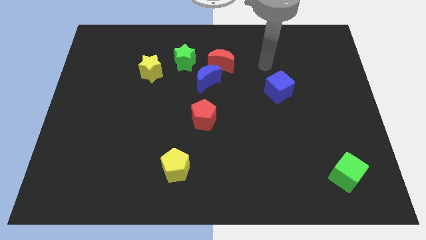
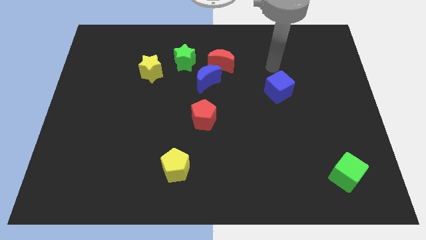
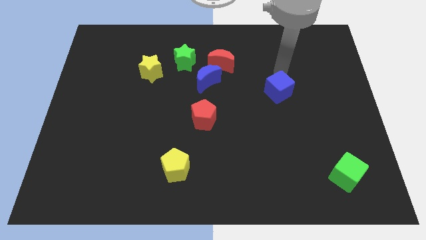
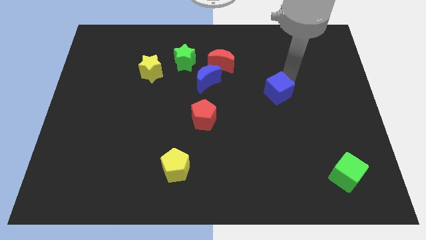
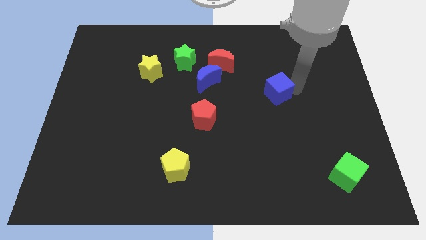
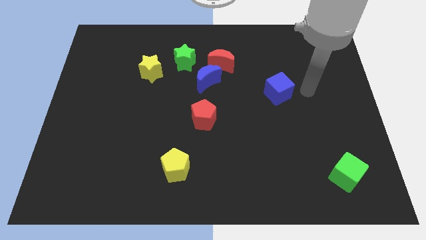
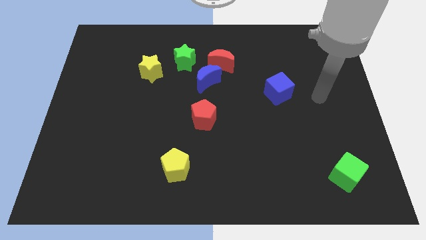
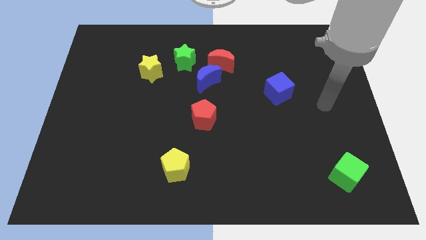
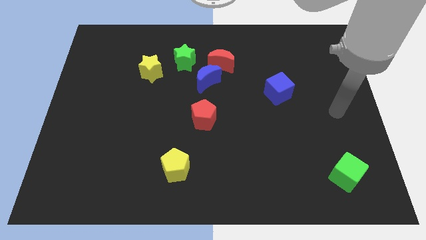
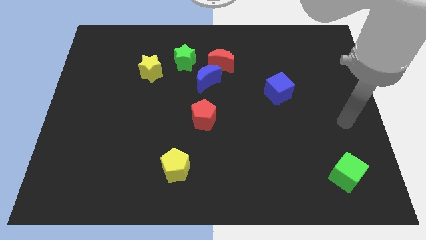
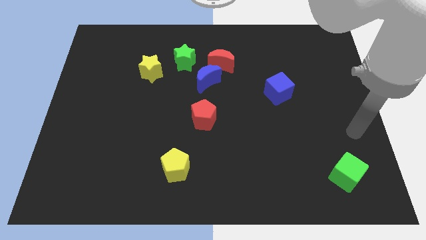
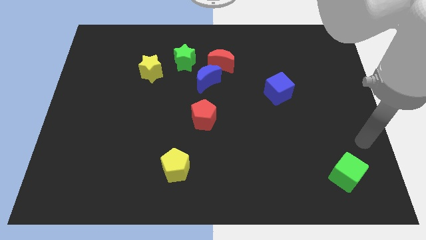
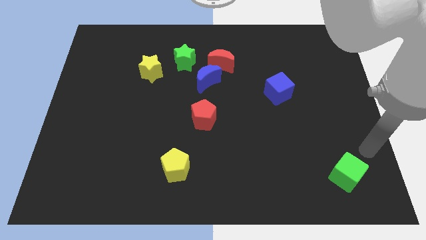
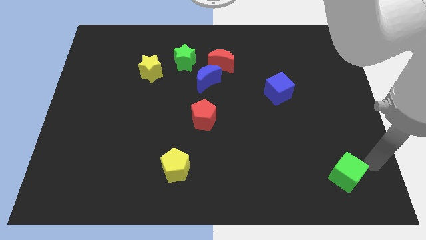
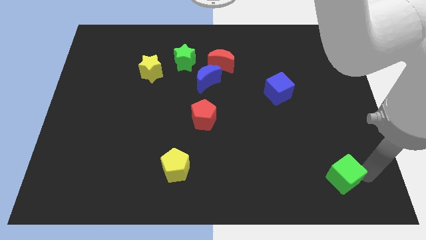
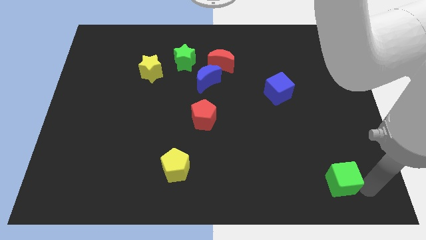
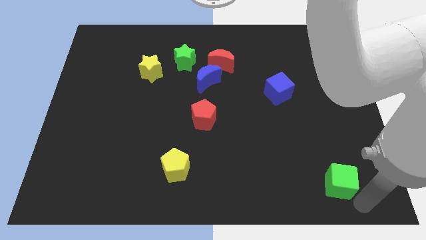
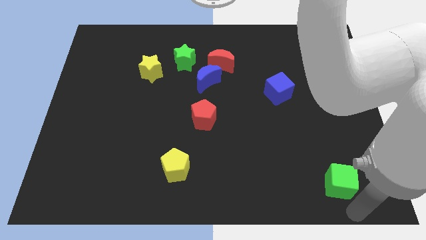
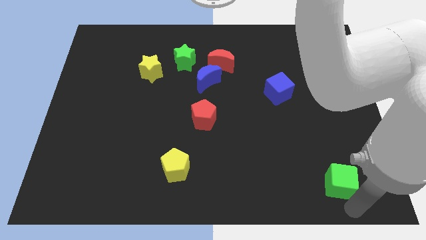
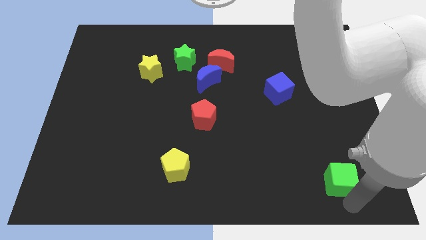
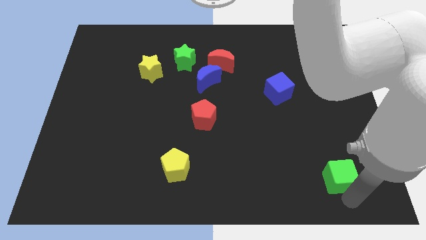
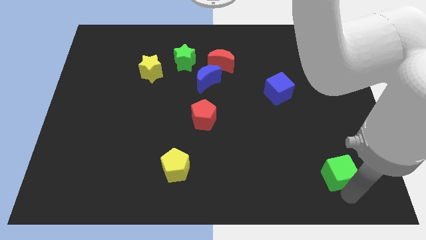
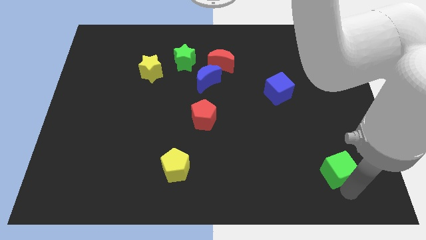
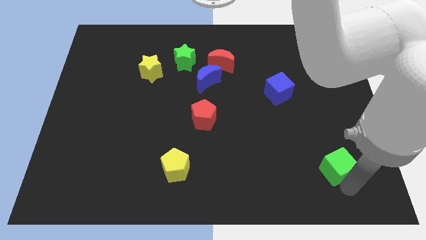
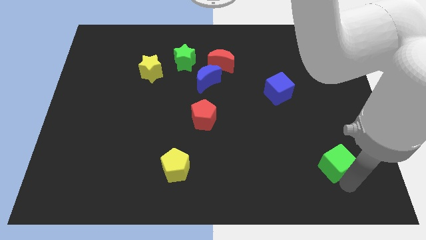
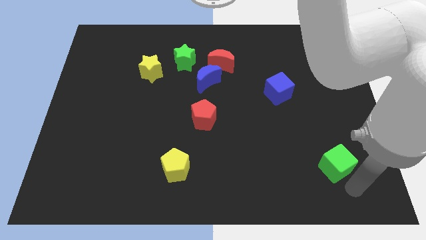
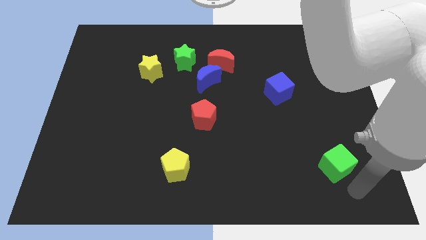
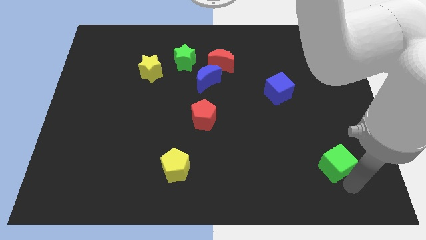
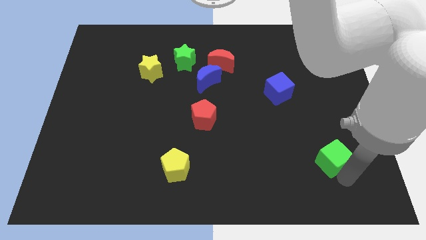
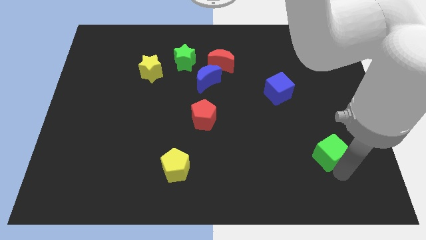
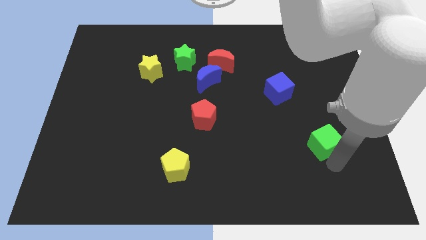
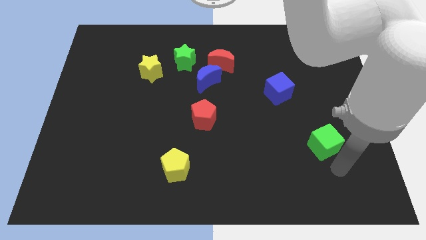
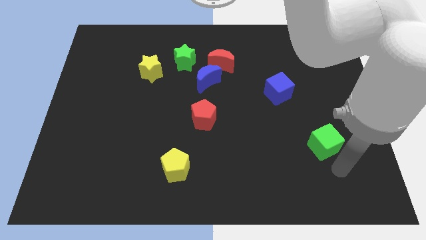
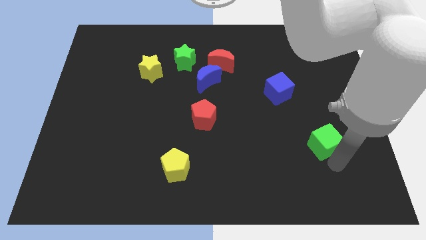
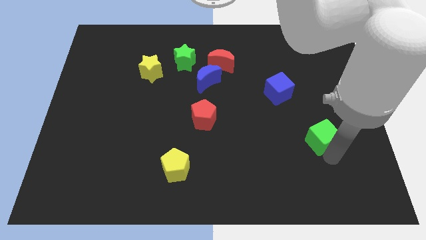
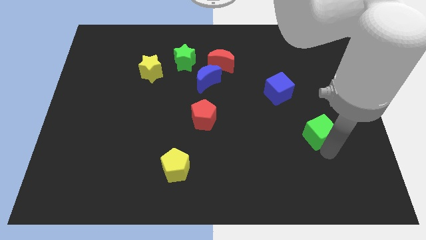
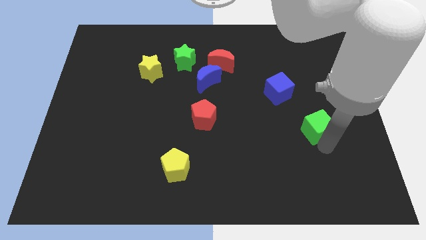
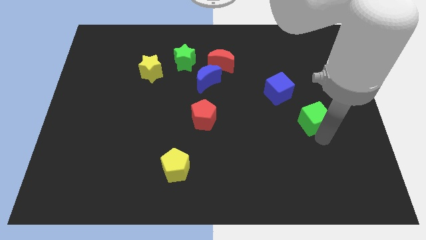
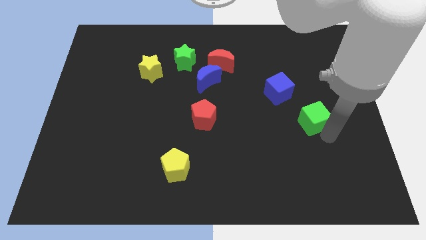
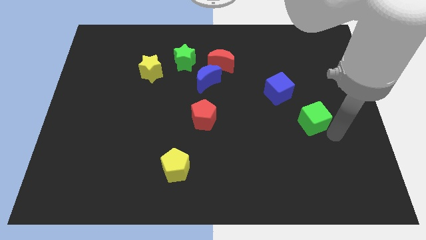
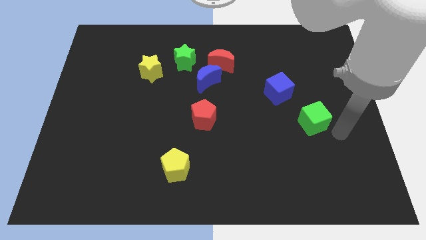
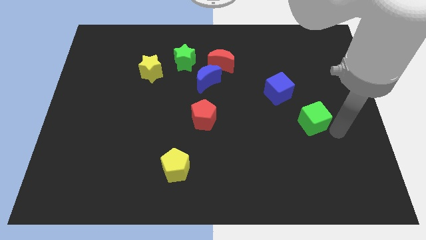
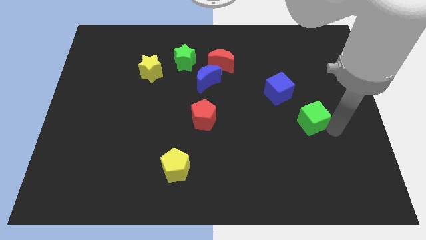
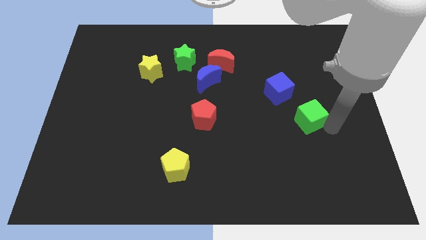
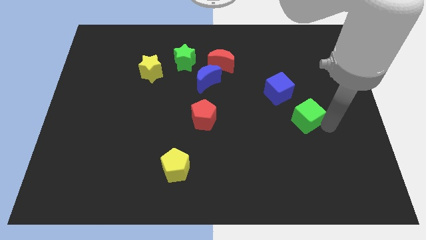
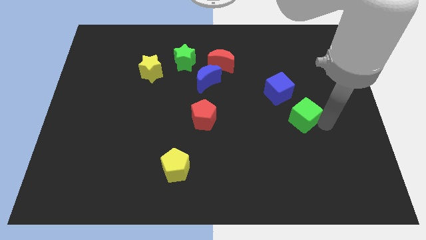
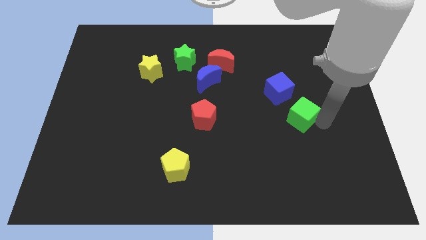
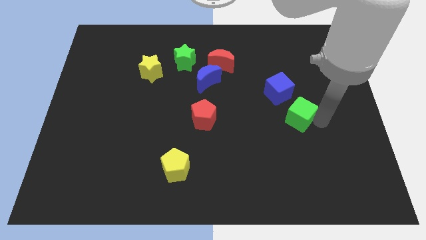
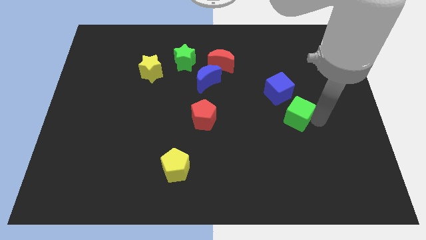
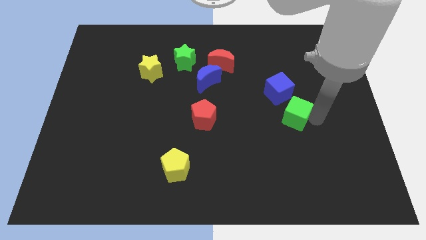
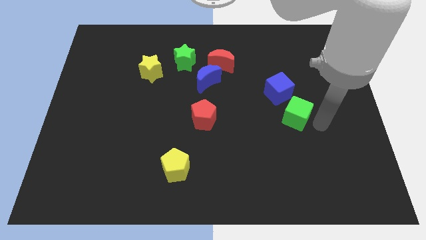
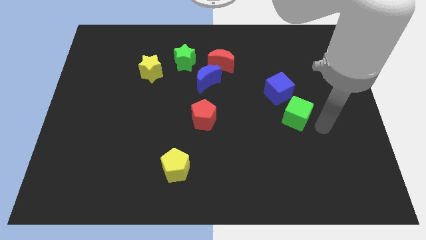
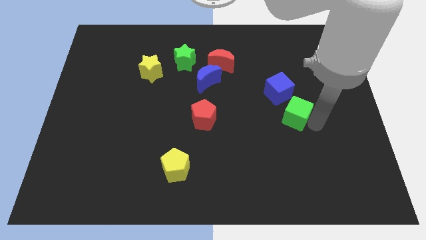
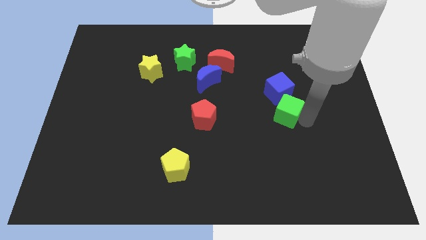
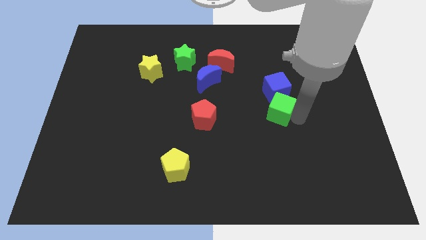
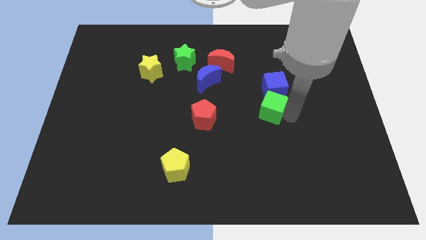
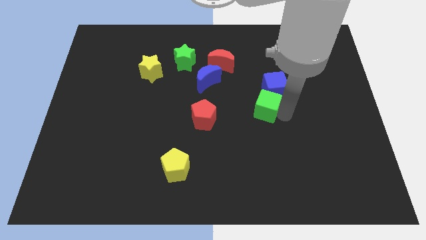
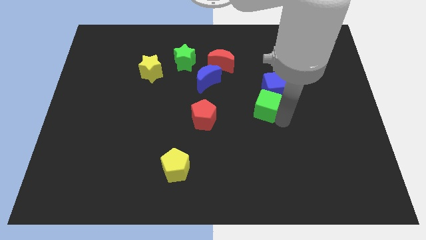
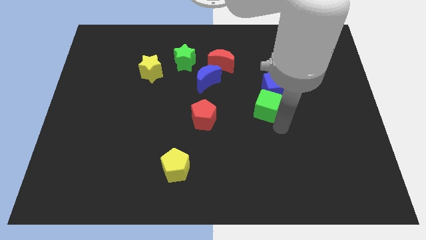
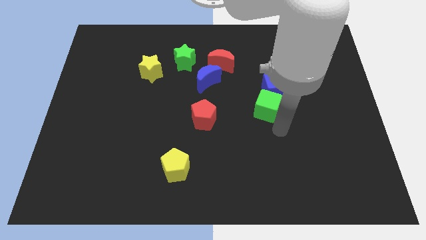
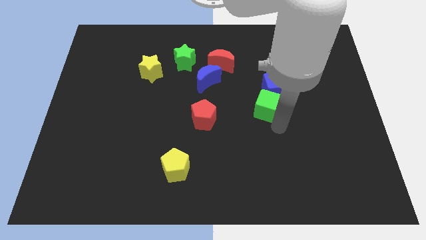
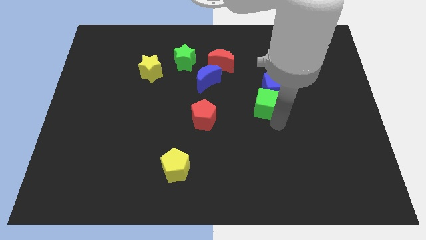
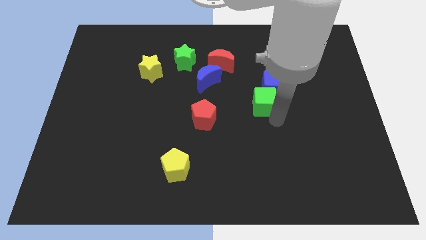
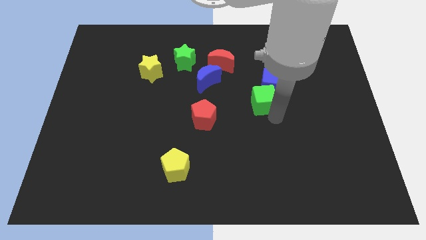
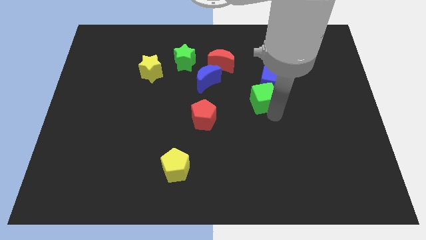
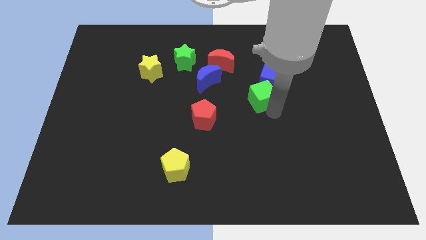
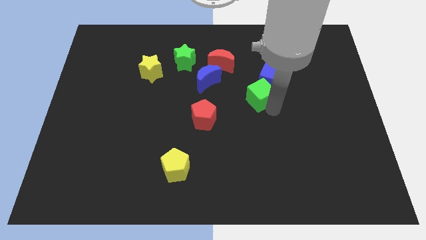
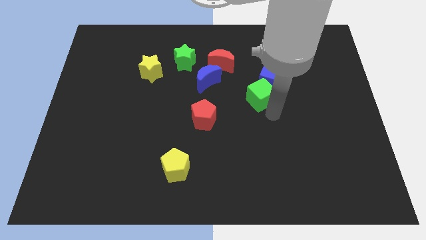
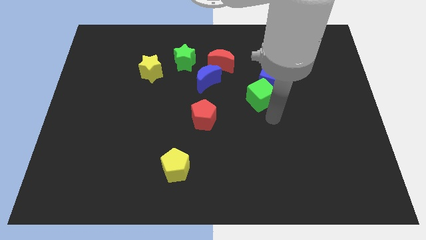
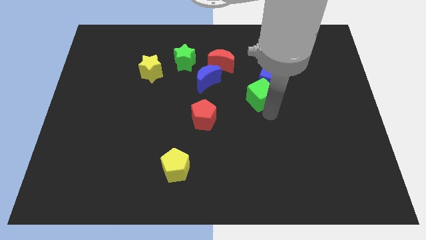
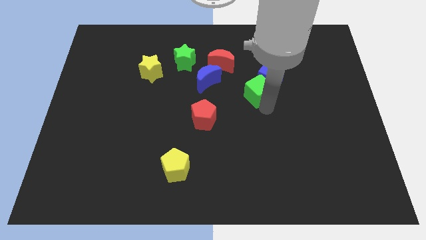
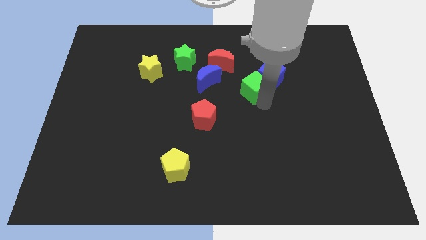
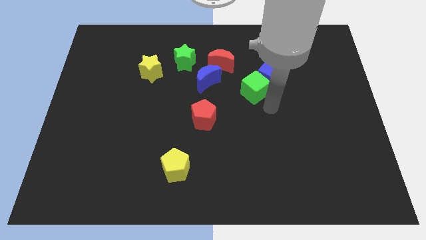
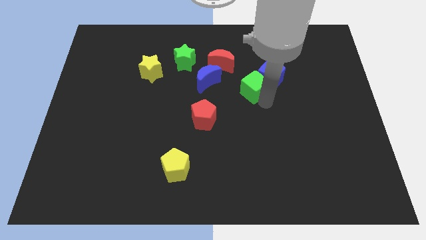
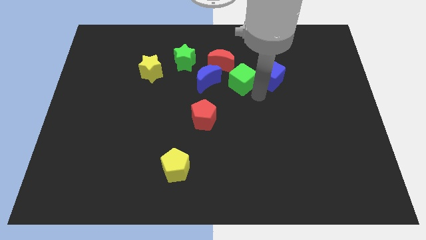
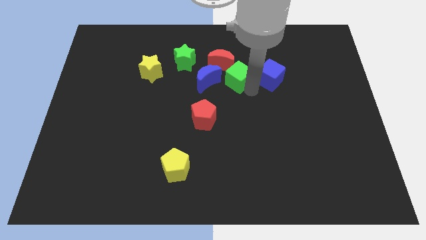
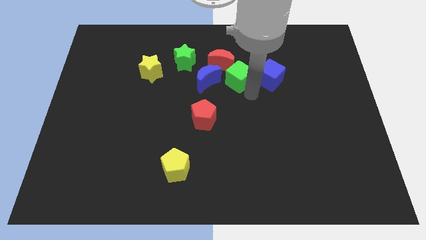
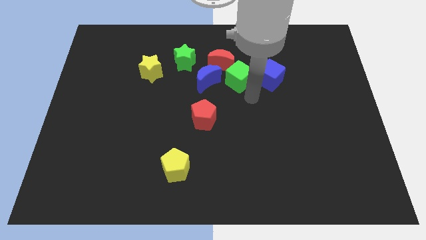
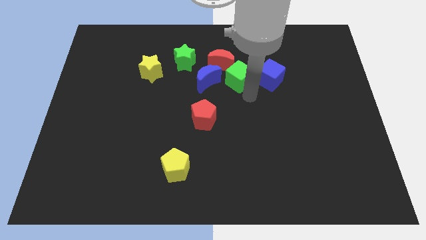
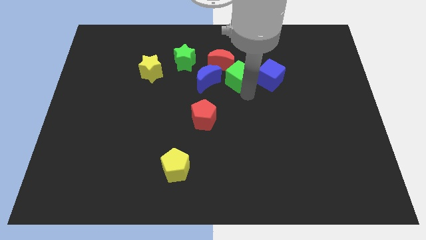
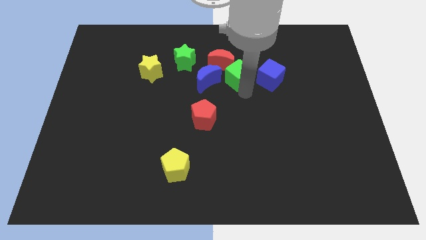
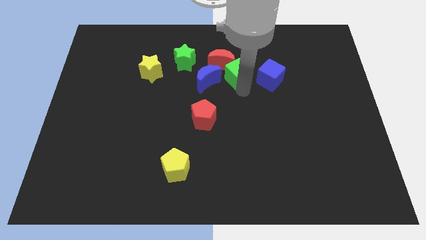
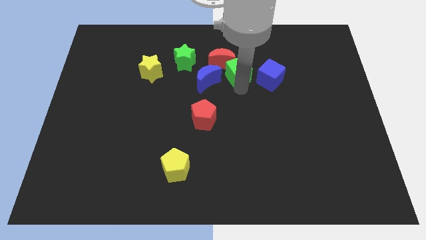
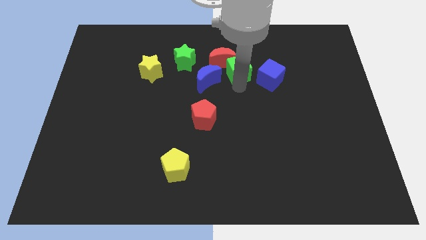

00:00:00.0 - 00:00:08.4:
move the green cube to the right of the green star
